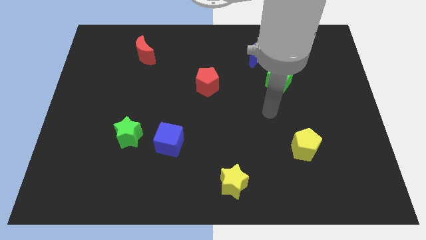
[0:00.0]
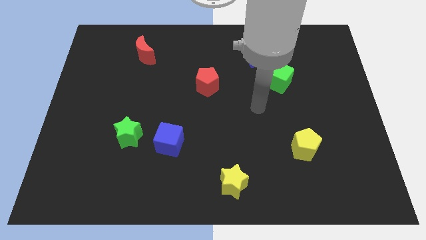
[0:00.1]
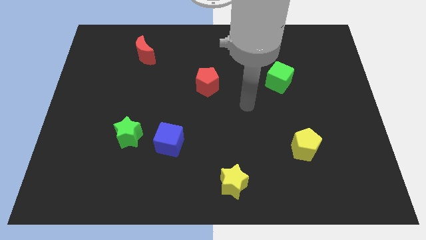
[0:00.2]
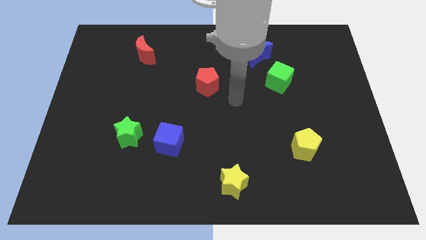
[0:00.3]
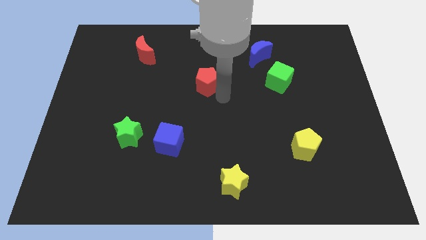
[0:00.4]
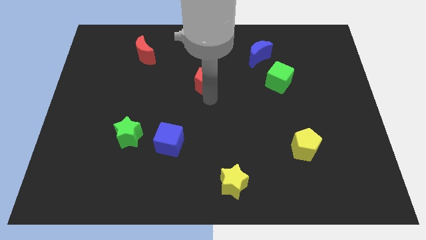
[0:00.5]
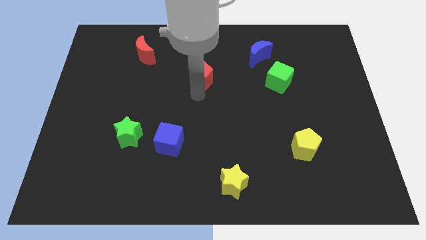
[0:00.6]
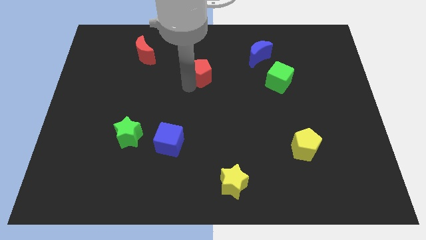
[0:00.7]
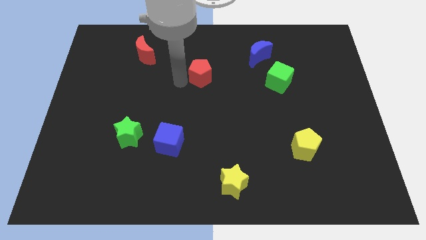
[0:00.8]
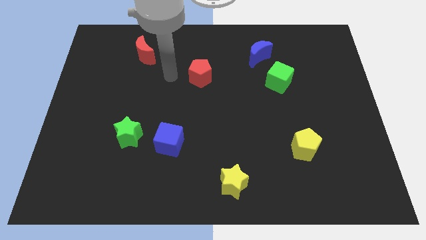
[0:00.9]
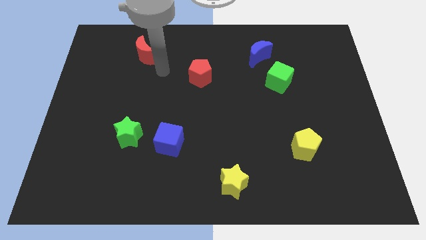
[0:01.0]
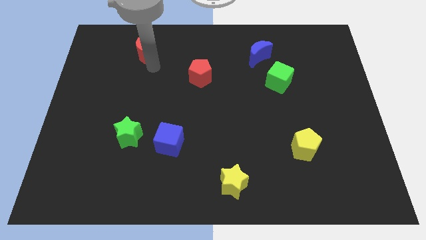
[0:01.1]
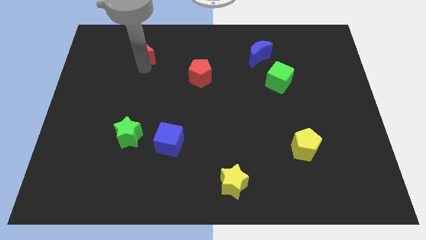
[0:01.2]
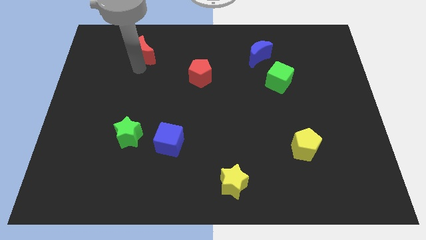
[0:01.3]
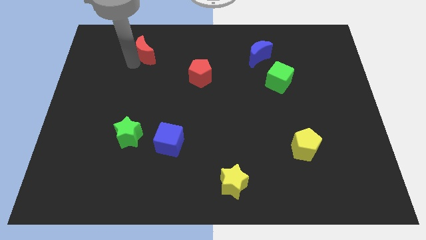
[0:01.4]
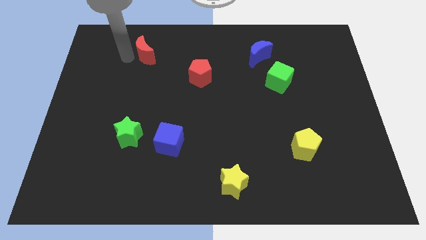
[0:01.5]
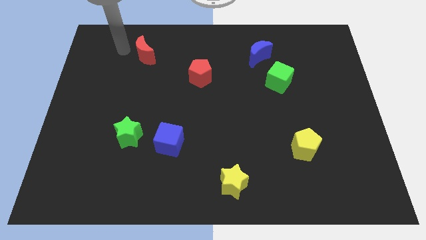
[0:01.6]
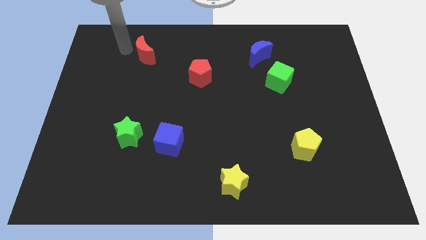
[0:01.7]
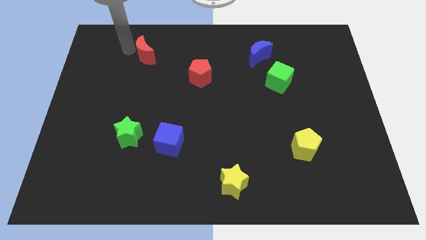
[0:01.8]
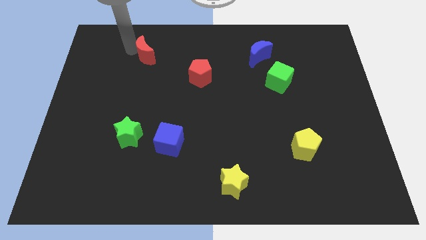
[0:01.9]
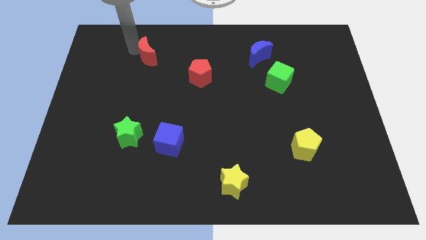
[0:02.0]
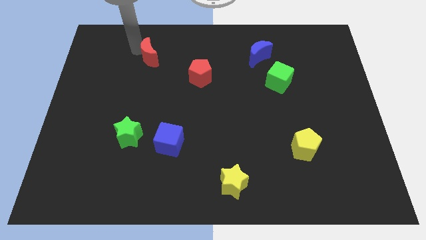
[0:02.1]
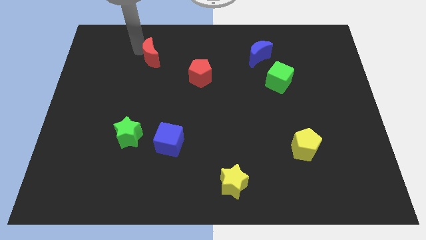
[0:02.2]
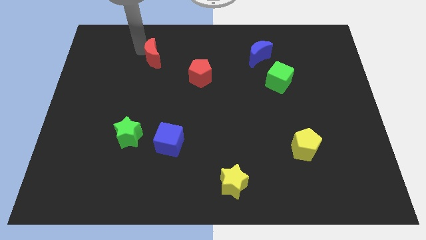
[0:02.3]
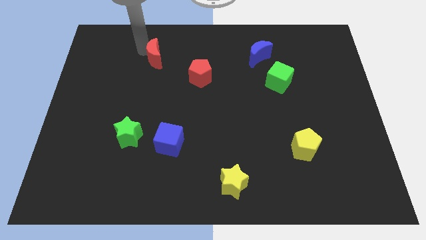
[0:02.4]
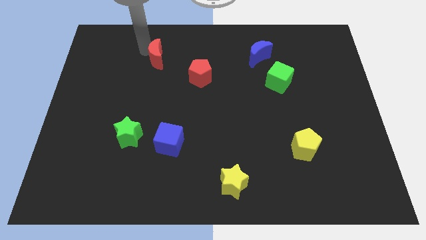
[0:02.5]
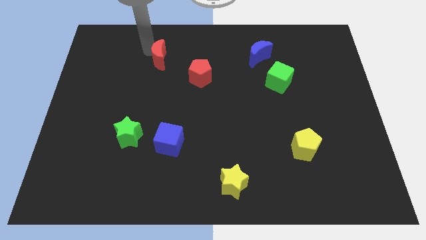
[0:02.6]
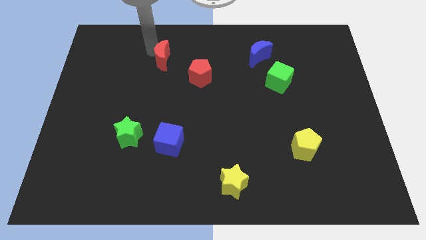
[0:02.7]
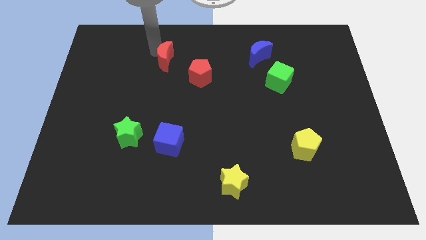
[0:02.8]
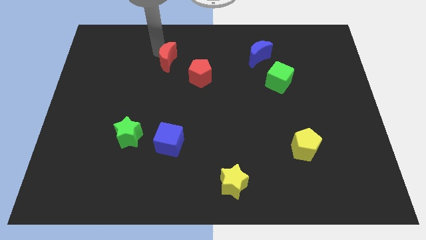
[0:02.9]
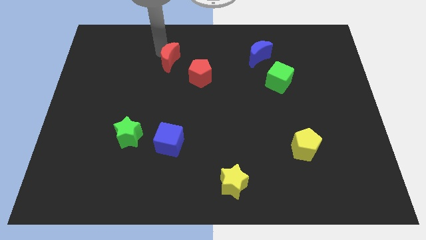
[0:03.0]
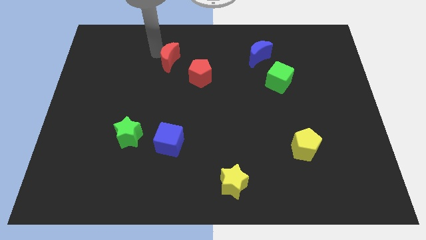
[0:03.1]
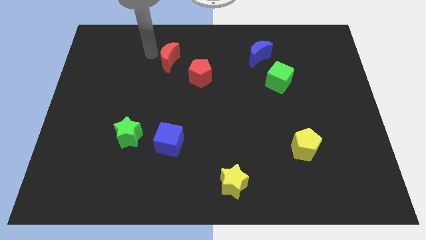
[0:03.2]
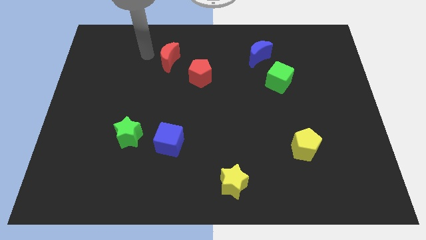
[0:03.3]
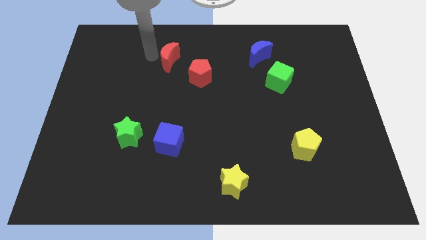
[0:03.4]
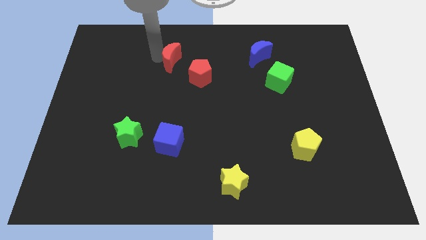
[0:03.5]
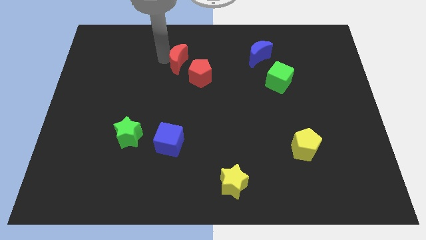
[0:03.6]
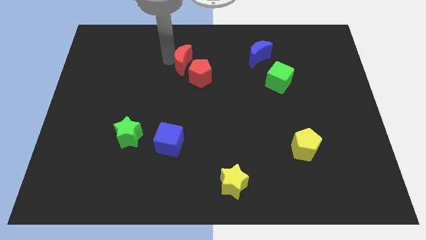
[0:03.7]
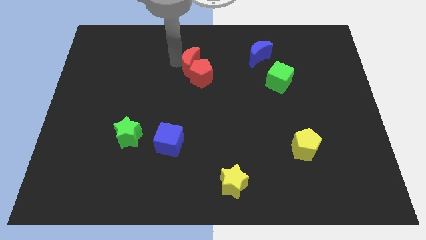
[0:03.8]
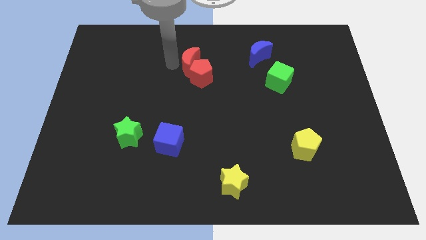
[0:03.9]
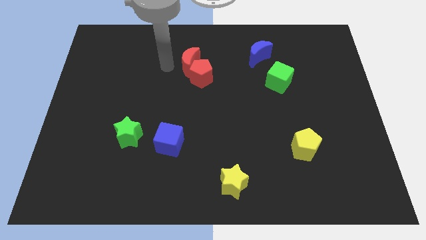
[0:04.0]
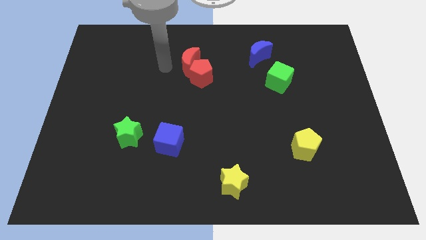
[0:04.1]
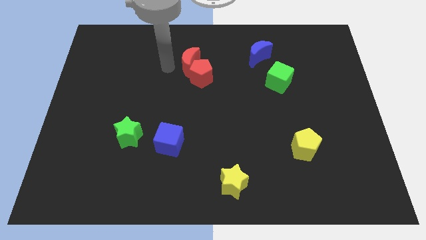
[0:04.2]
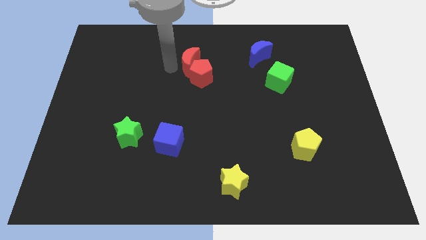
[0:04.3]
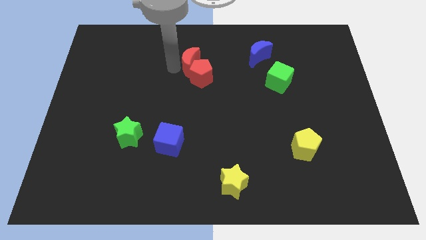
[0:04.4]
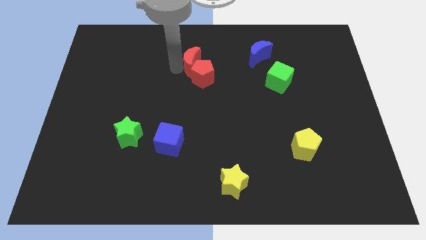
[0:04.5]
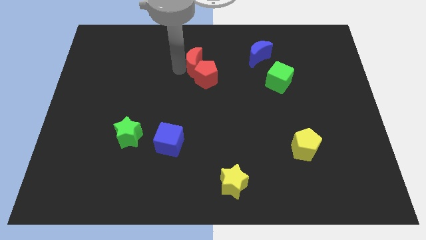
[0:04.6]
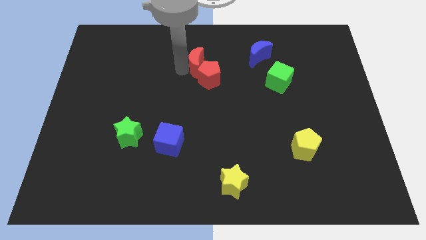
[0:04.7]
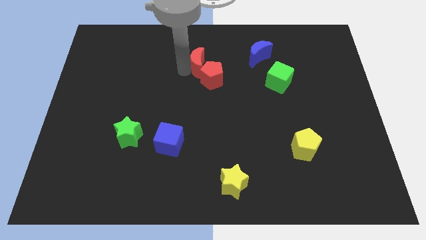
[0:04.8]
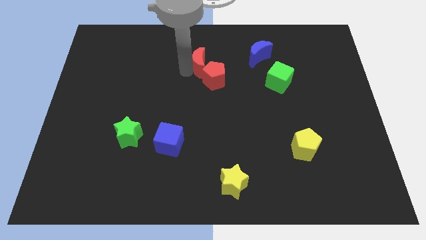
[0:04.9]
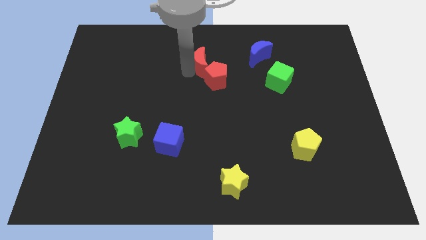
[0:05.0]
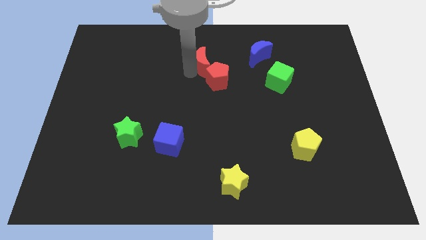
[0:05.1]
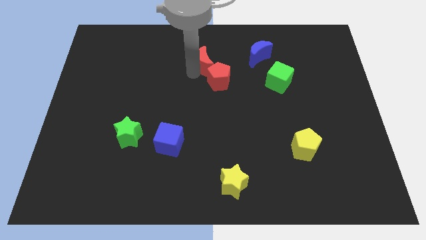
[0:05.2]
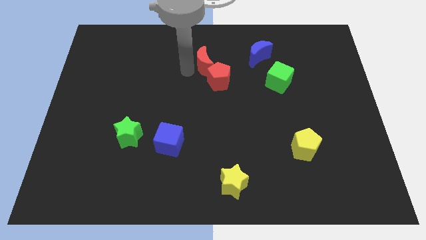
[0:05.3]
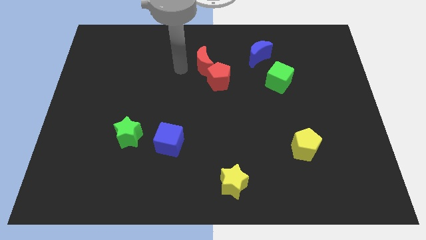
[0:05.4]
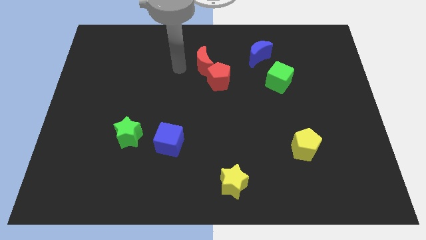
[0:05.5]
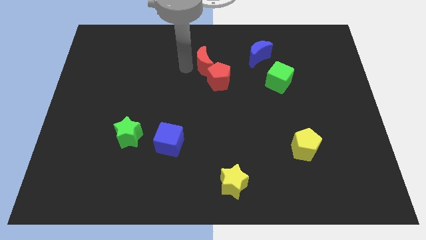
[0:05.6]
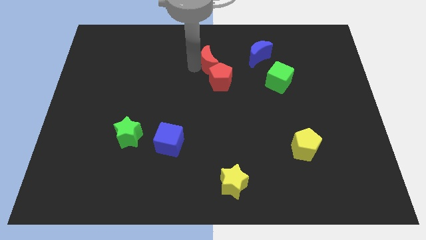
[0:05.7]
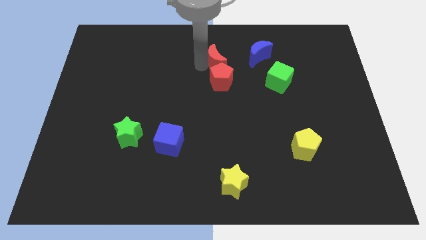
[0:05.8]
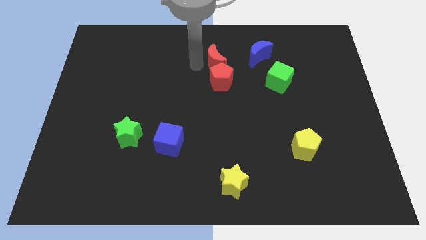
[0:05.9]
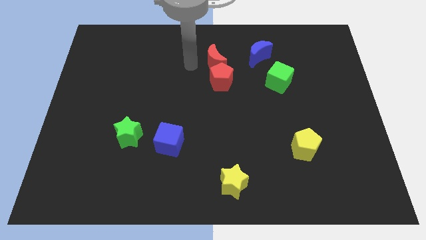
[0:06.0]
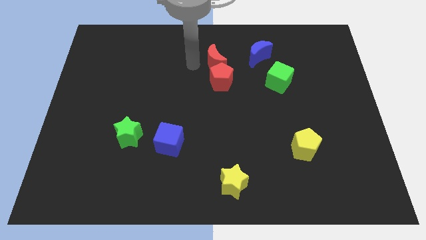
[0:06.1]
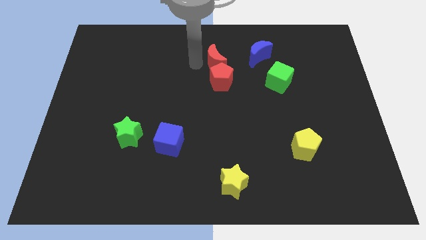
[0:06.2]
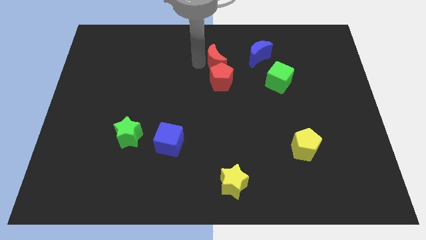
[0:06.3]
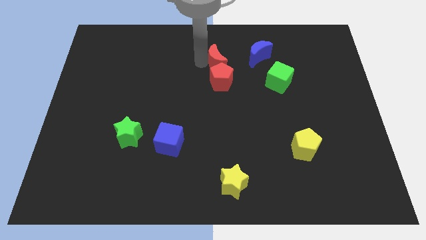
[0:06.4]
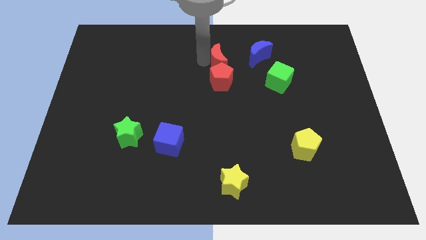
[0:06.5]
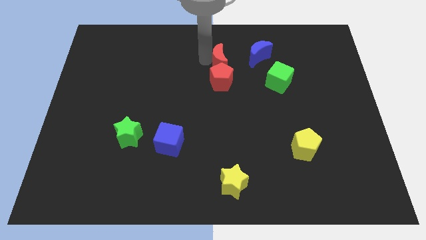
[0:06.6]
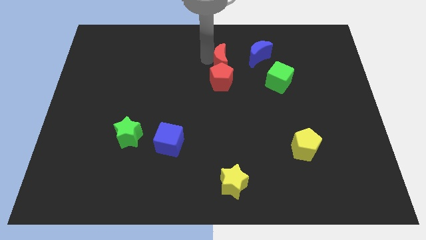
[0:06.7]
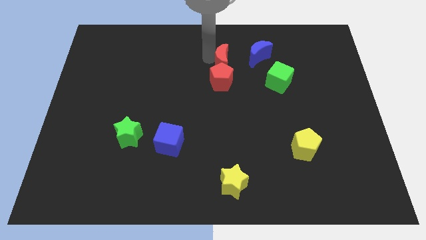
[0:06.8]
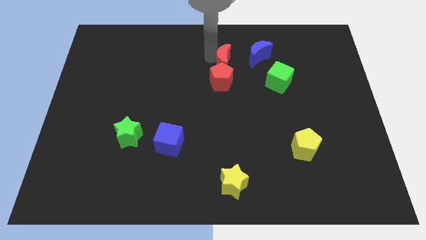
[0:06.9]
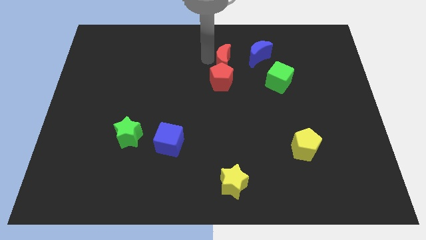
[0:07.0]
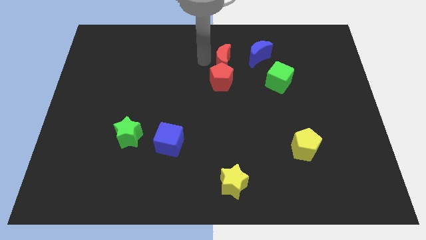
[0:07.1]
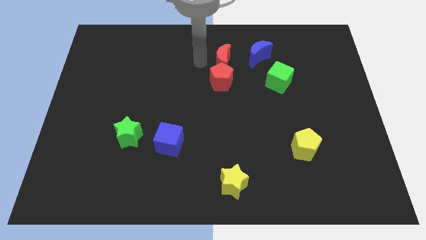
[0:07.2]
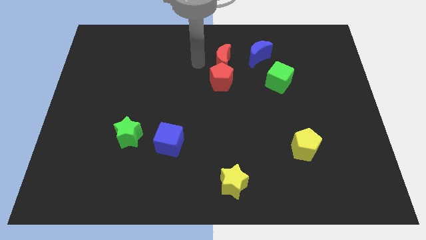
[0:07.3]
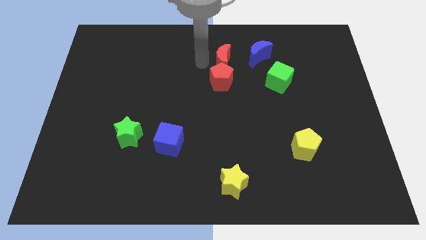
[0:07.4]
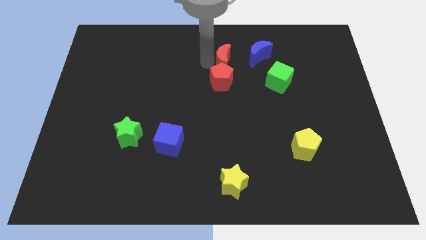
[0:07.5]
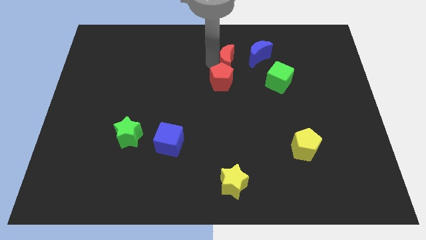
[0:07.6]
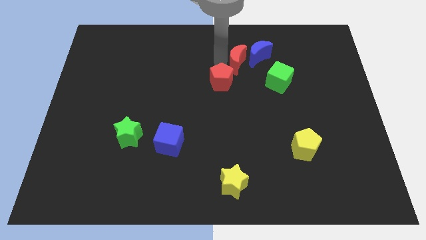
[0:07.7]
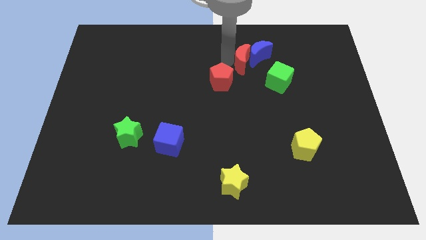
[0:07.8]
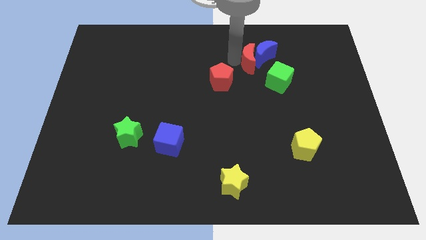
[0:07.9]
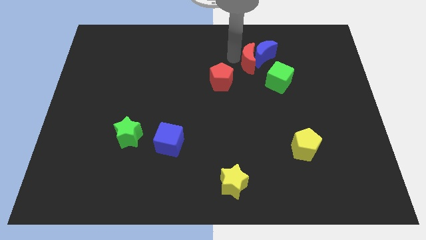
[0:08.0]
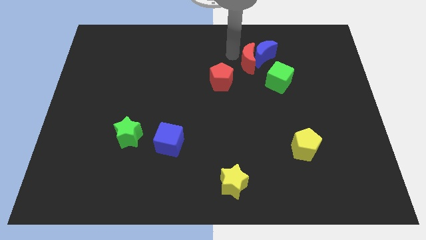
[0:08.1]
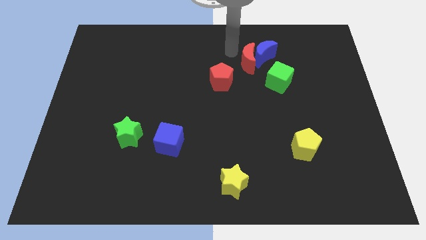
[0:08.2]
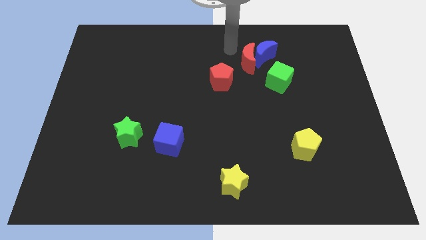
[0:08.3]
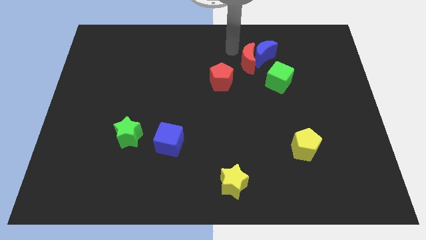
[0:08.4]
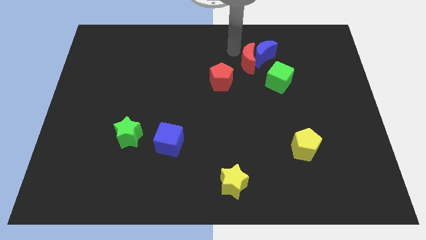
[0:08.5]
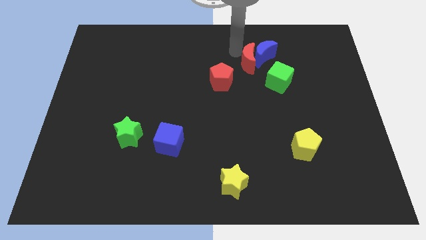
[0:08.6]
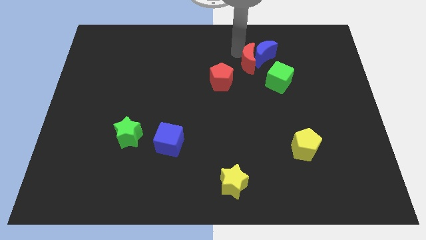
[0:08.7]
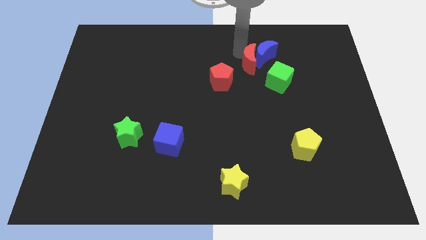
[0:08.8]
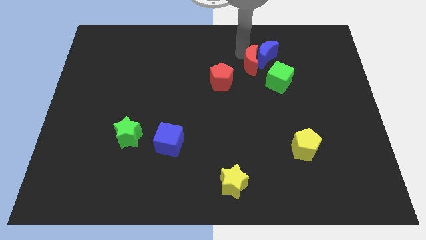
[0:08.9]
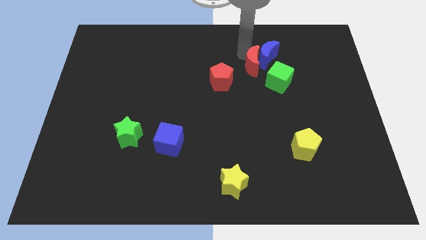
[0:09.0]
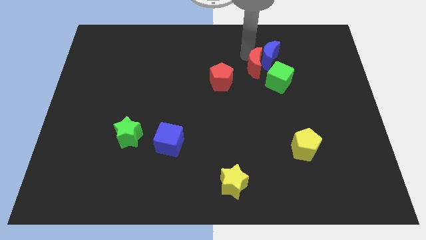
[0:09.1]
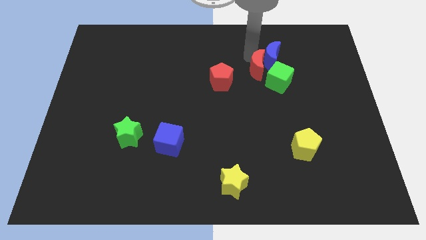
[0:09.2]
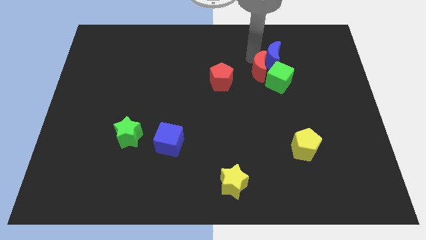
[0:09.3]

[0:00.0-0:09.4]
slide the red moon towards the green cube
